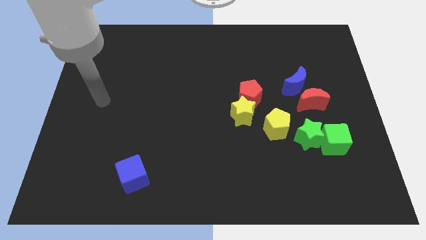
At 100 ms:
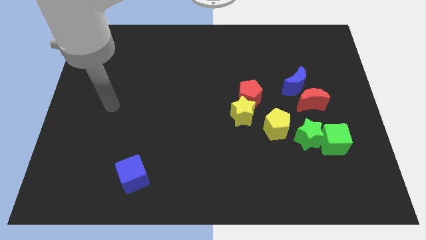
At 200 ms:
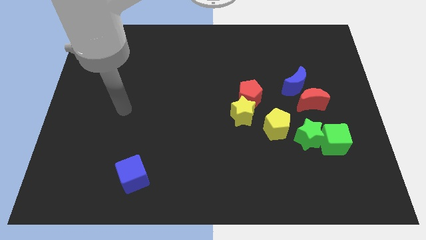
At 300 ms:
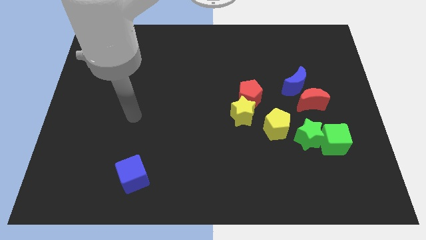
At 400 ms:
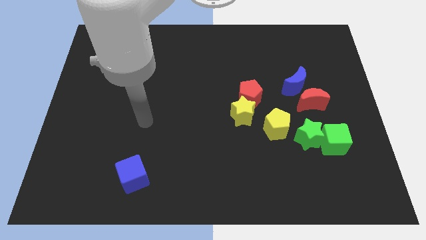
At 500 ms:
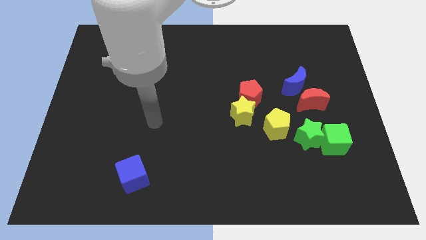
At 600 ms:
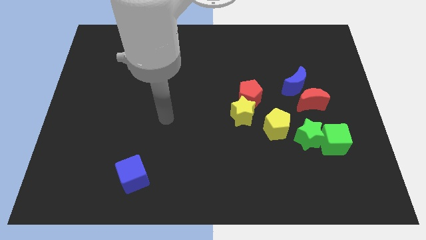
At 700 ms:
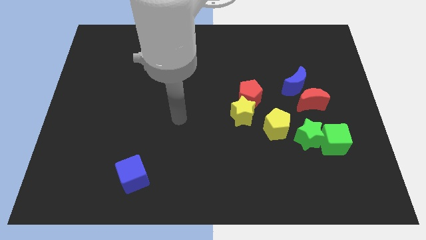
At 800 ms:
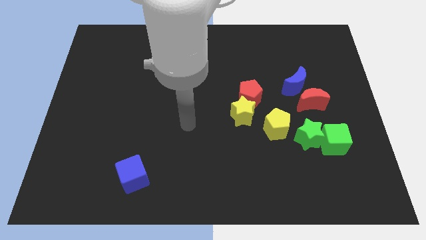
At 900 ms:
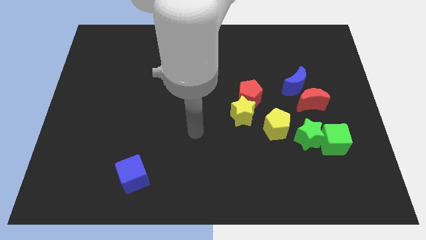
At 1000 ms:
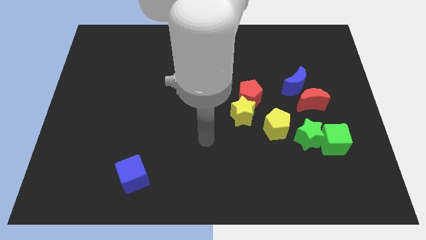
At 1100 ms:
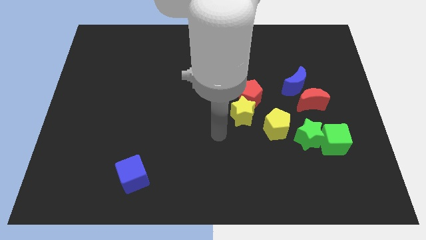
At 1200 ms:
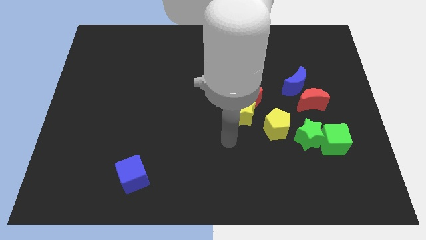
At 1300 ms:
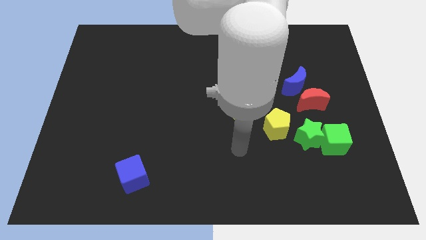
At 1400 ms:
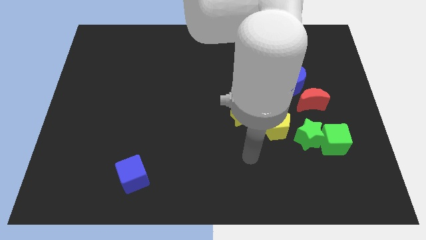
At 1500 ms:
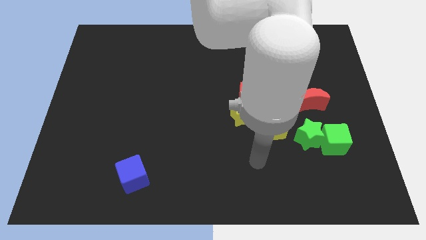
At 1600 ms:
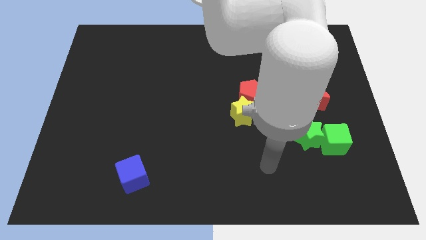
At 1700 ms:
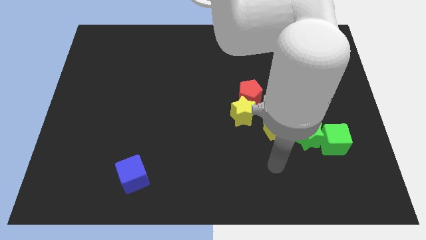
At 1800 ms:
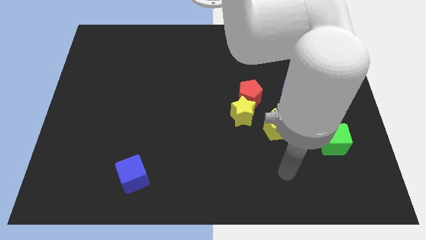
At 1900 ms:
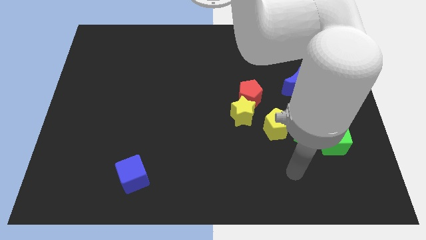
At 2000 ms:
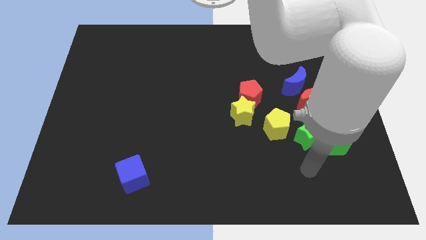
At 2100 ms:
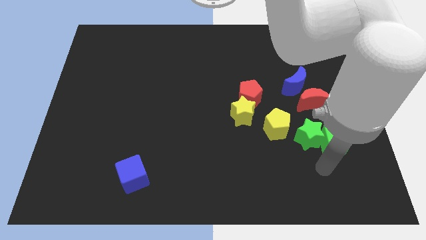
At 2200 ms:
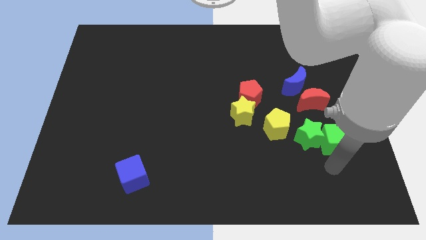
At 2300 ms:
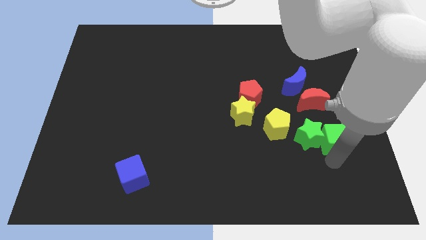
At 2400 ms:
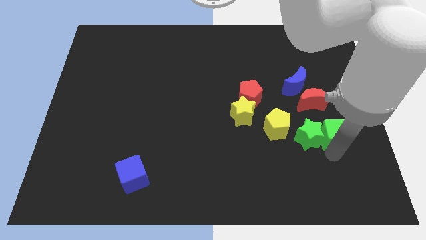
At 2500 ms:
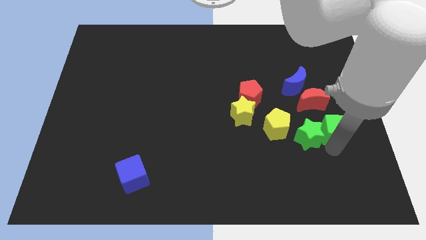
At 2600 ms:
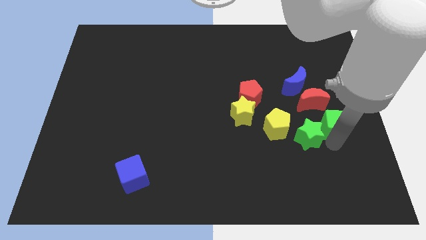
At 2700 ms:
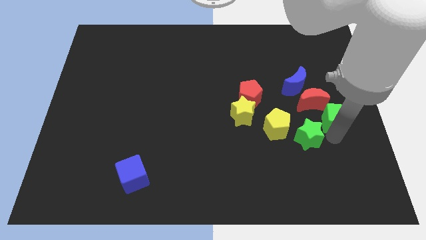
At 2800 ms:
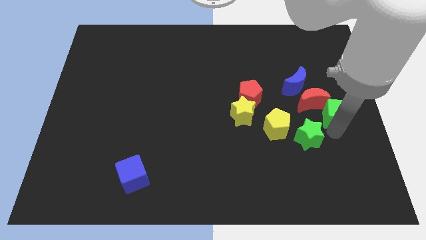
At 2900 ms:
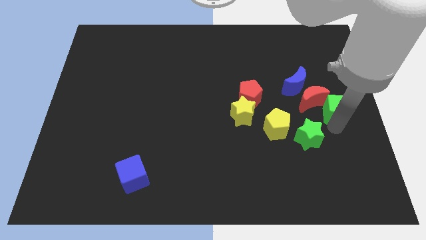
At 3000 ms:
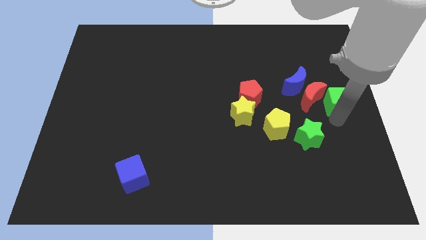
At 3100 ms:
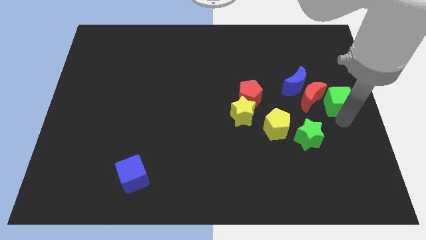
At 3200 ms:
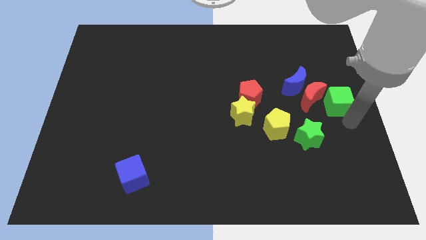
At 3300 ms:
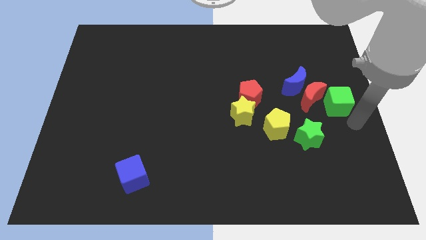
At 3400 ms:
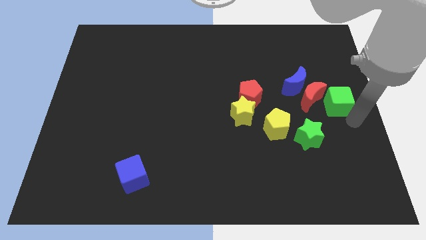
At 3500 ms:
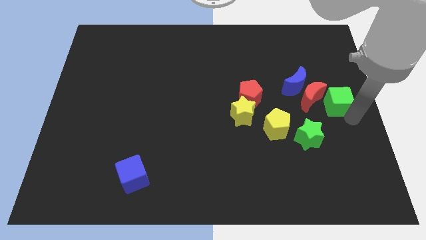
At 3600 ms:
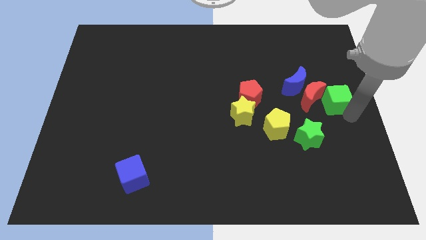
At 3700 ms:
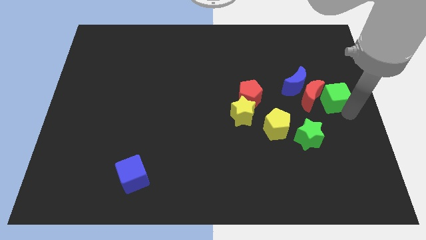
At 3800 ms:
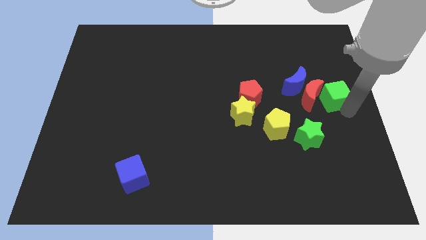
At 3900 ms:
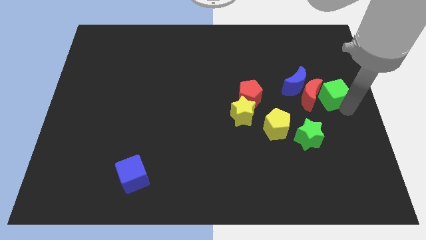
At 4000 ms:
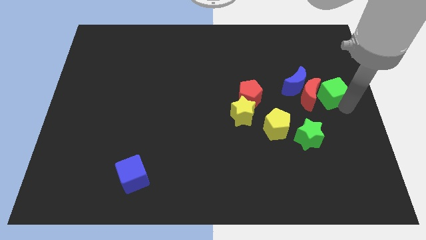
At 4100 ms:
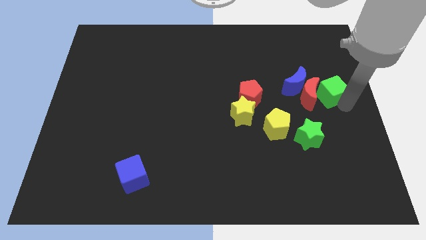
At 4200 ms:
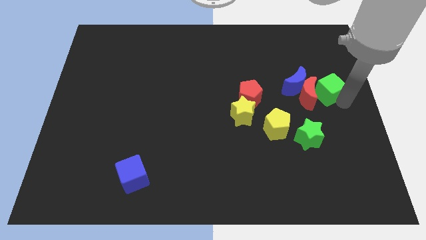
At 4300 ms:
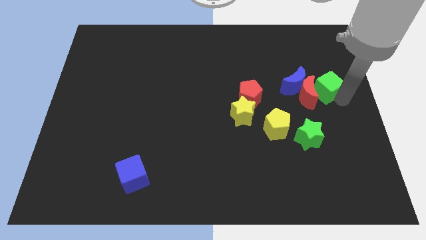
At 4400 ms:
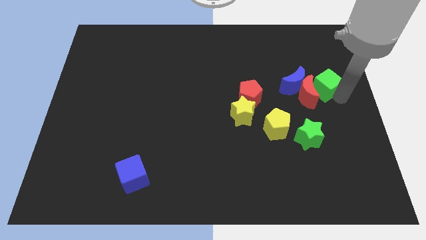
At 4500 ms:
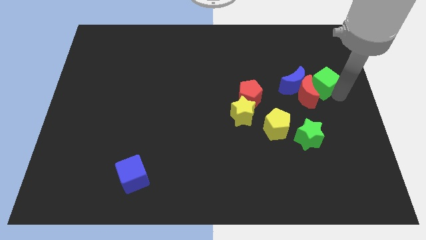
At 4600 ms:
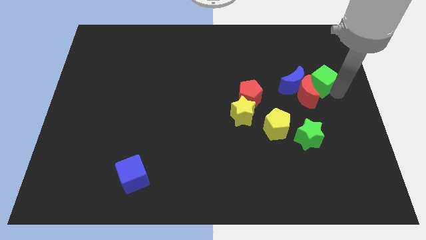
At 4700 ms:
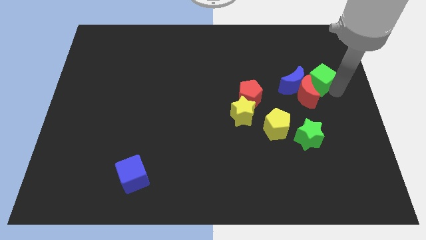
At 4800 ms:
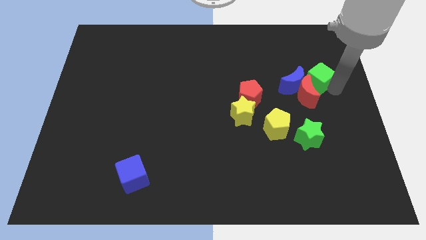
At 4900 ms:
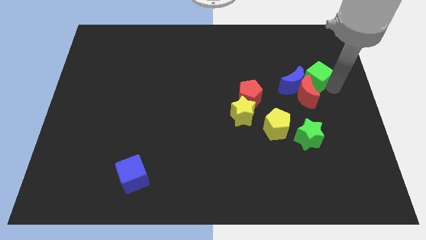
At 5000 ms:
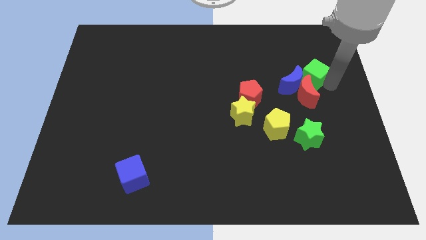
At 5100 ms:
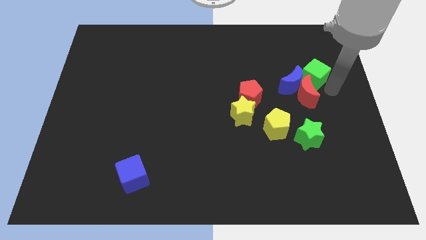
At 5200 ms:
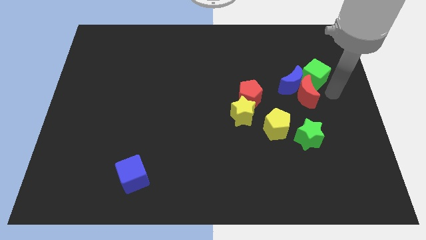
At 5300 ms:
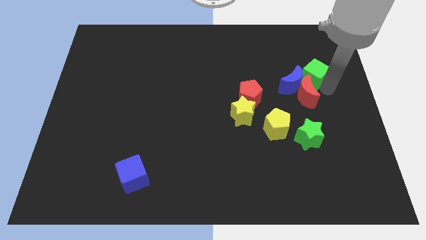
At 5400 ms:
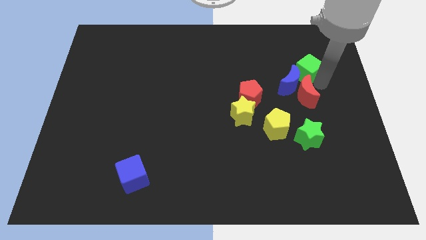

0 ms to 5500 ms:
slide the green cube to the top side of the blue moon

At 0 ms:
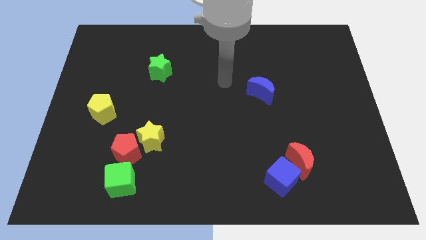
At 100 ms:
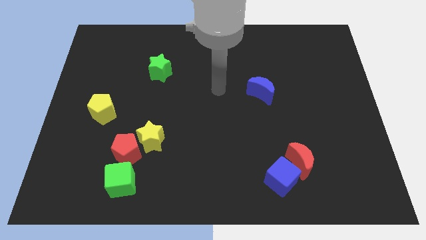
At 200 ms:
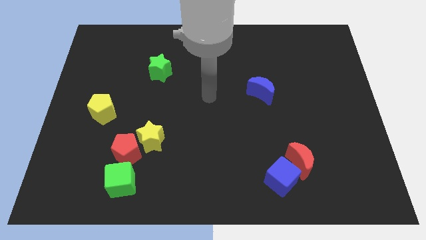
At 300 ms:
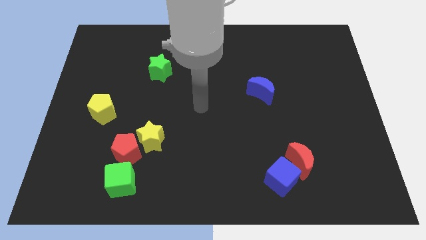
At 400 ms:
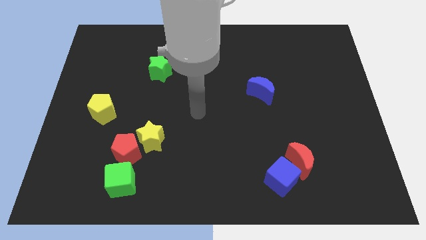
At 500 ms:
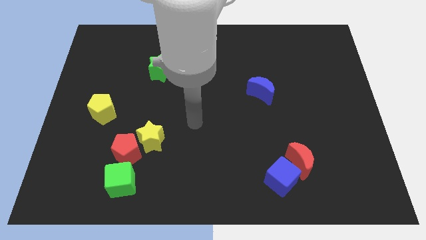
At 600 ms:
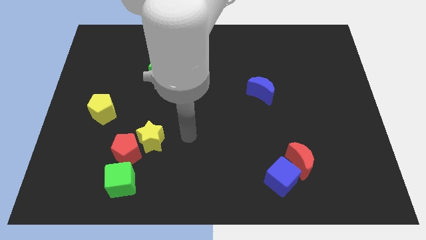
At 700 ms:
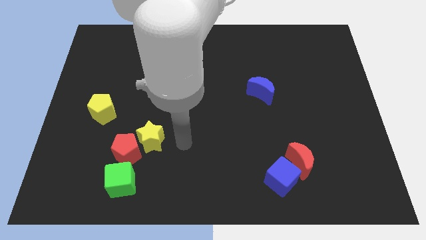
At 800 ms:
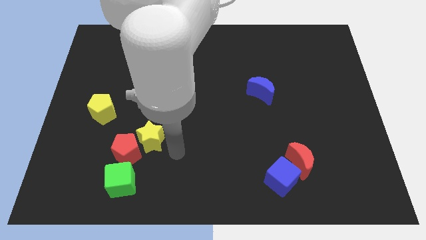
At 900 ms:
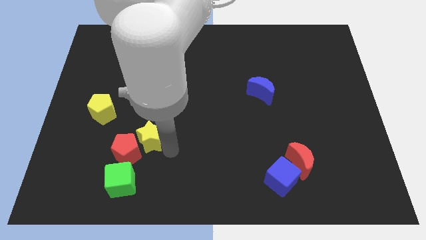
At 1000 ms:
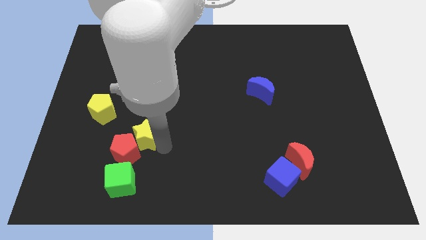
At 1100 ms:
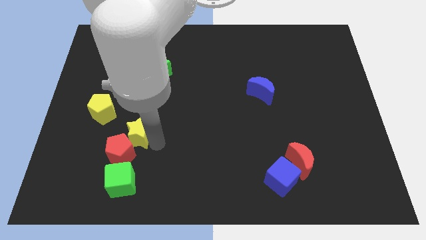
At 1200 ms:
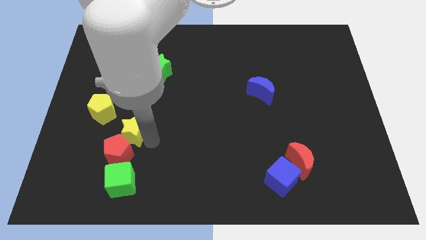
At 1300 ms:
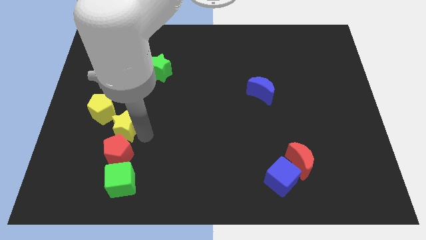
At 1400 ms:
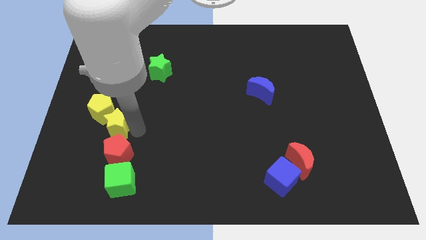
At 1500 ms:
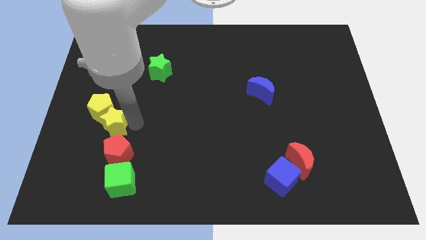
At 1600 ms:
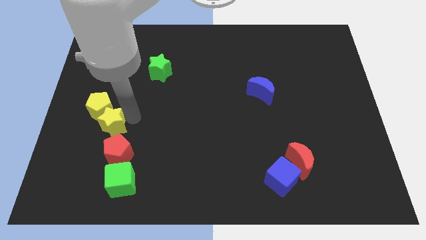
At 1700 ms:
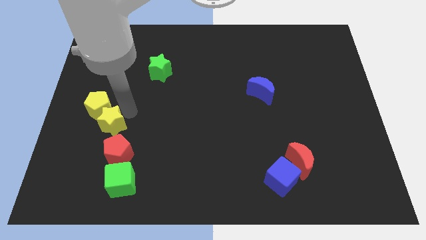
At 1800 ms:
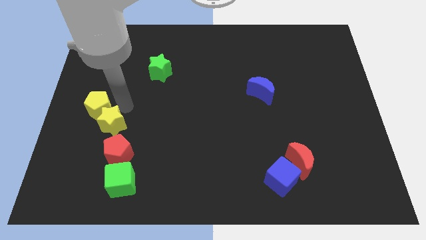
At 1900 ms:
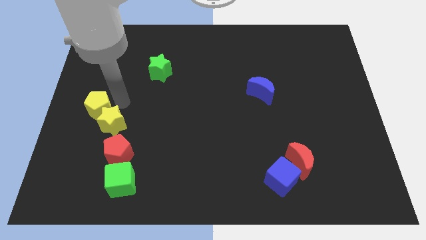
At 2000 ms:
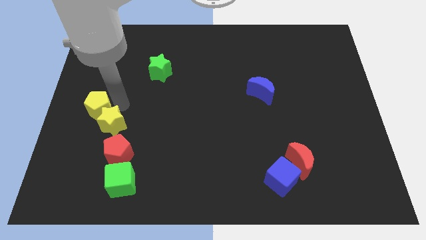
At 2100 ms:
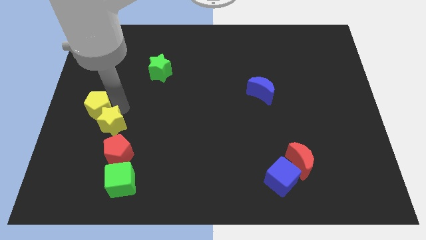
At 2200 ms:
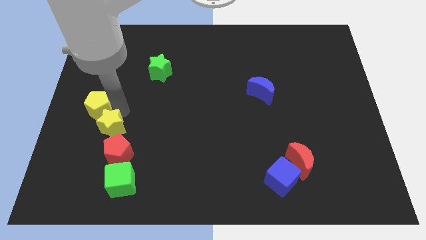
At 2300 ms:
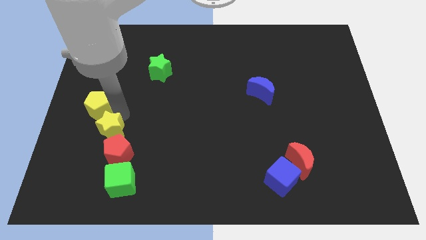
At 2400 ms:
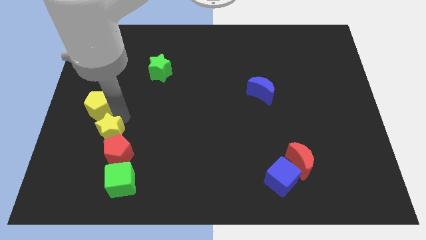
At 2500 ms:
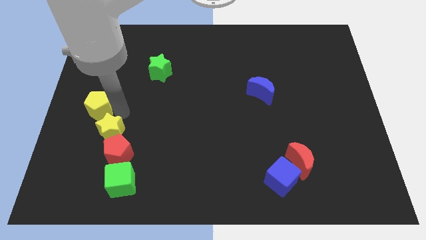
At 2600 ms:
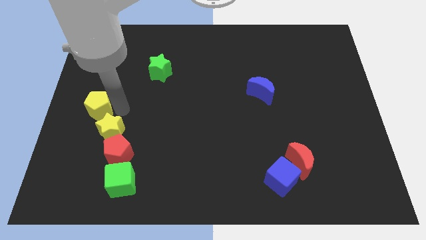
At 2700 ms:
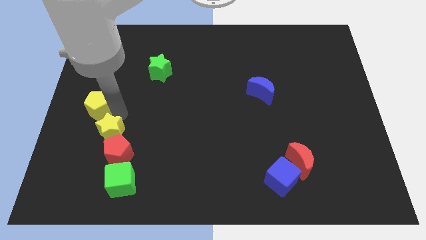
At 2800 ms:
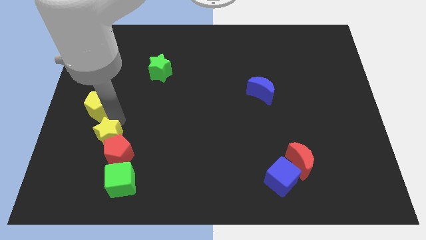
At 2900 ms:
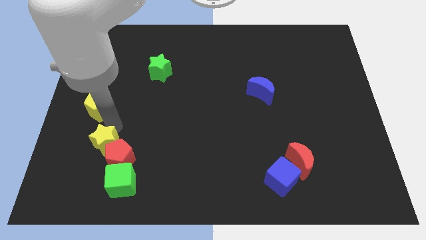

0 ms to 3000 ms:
slide the yellow star to the top left of the green cube
